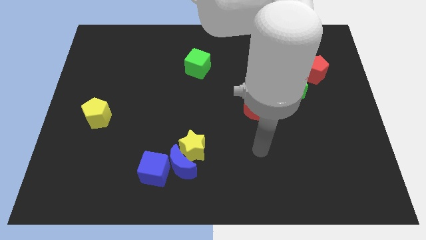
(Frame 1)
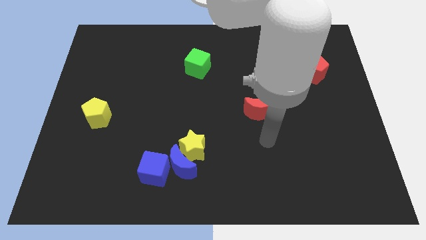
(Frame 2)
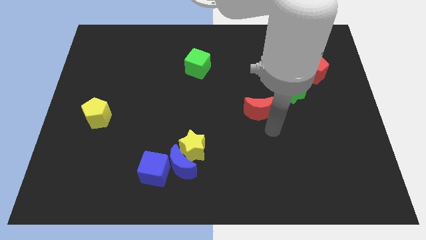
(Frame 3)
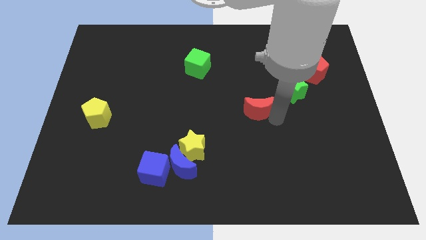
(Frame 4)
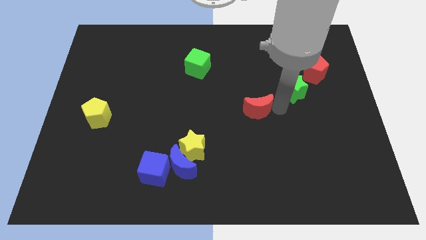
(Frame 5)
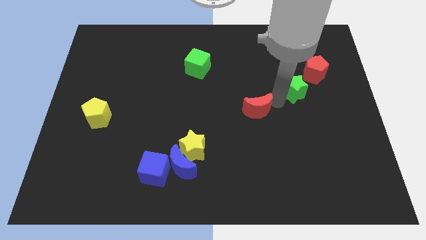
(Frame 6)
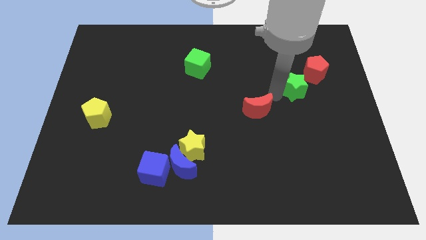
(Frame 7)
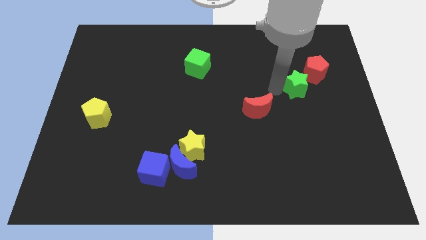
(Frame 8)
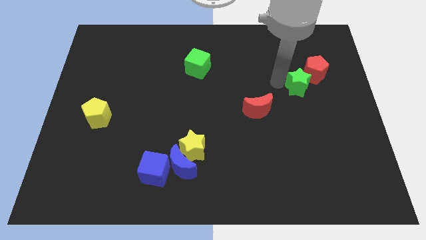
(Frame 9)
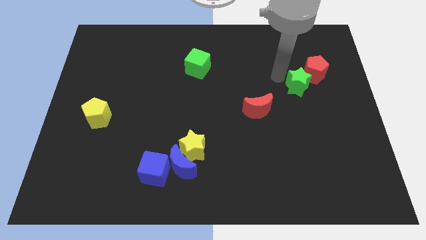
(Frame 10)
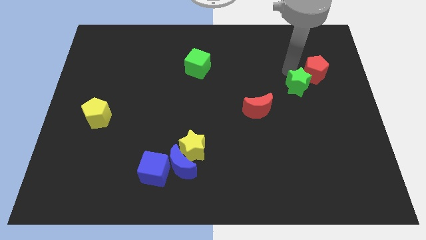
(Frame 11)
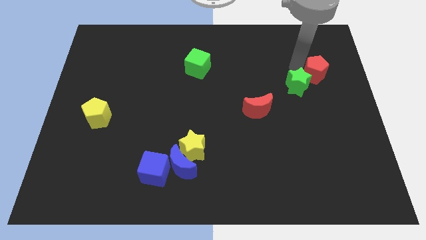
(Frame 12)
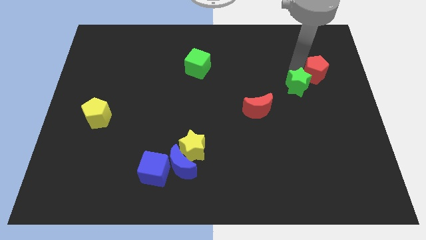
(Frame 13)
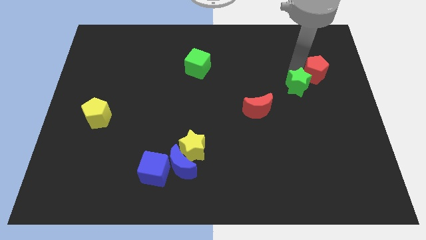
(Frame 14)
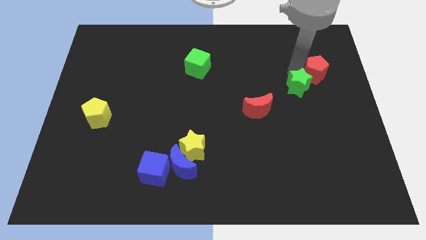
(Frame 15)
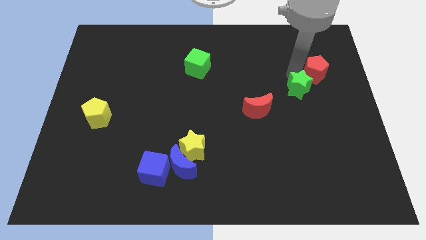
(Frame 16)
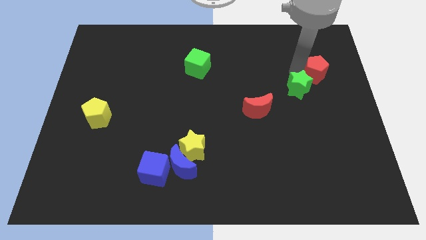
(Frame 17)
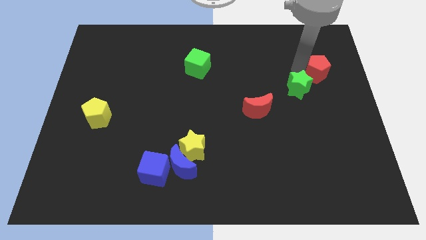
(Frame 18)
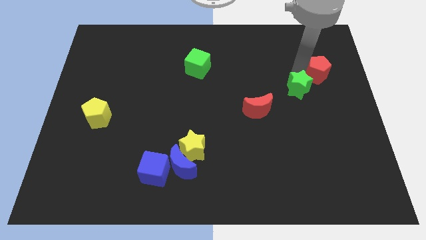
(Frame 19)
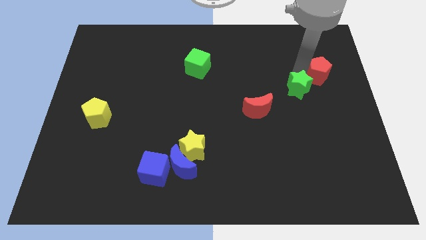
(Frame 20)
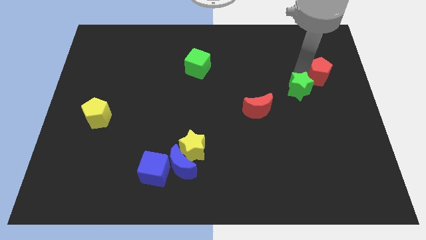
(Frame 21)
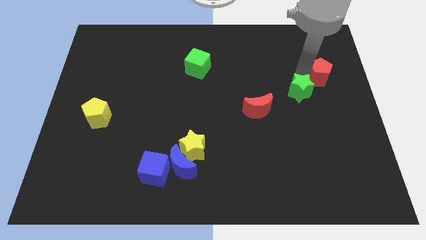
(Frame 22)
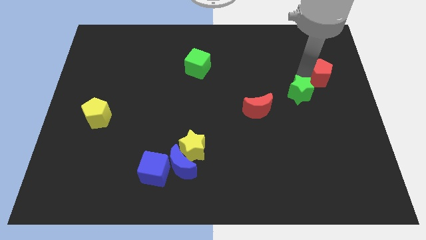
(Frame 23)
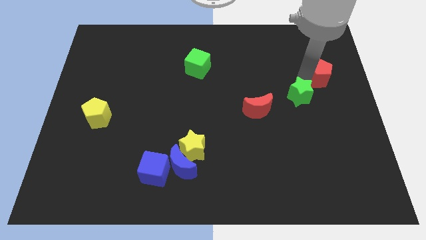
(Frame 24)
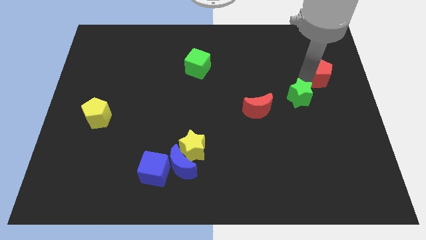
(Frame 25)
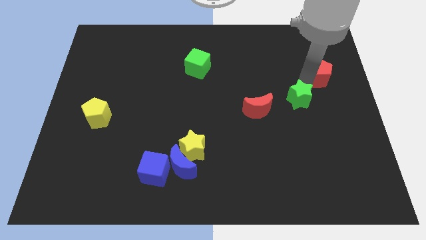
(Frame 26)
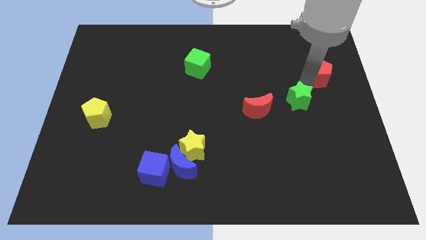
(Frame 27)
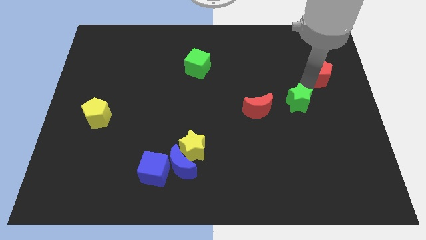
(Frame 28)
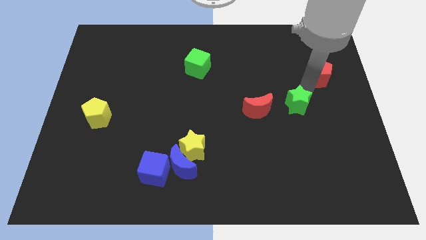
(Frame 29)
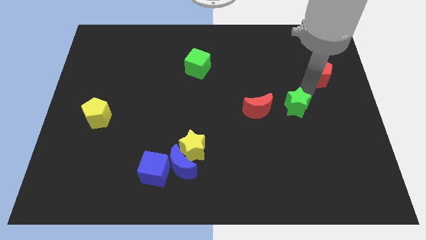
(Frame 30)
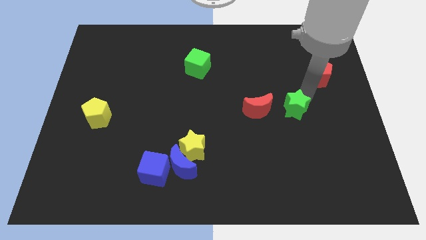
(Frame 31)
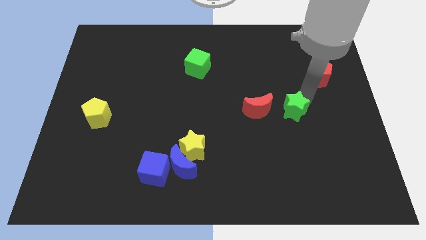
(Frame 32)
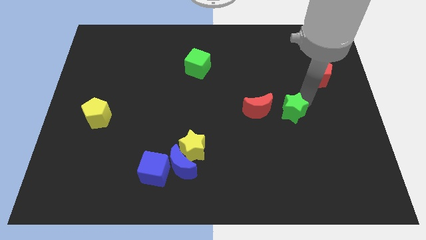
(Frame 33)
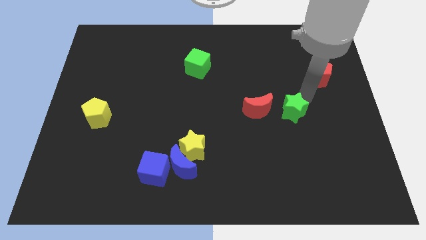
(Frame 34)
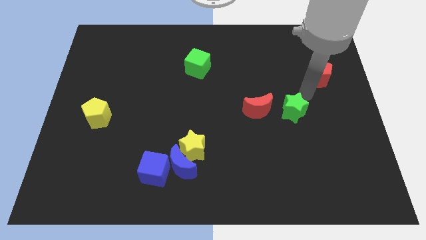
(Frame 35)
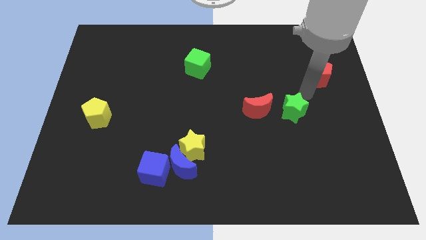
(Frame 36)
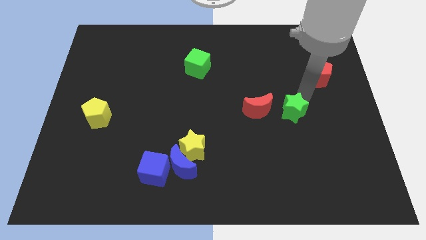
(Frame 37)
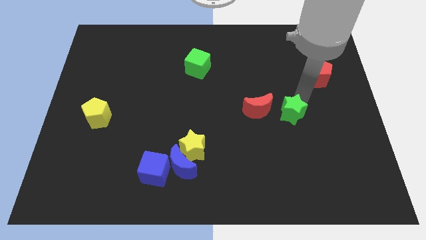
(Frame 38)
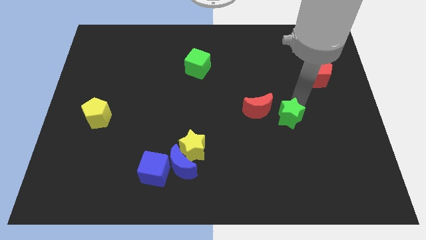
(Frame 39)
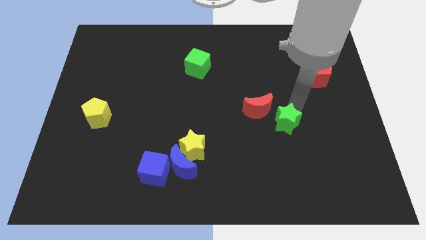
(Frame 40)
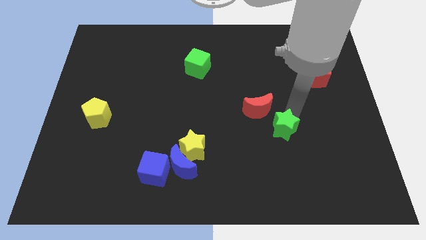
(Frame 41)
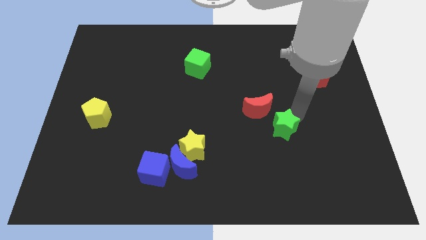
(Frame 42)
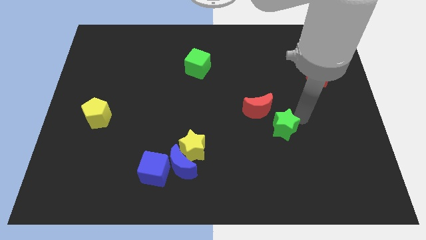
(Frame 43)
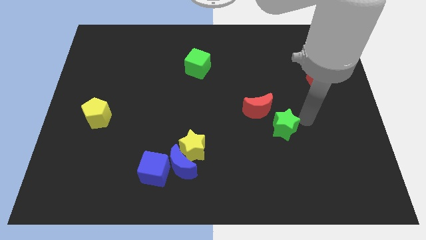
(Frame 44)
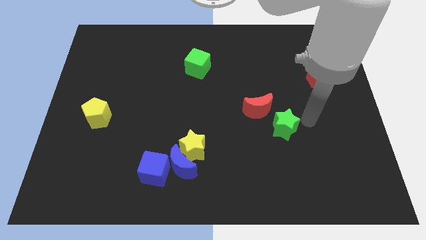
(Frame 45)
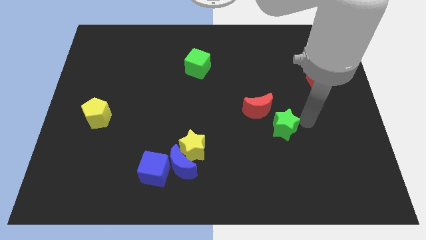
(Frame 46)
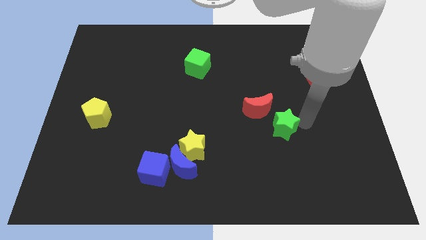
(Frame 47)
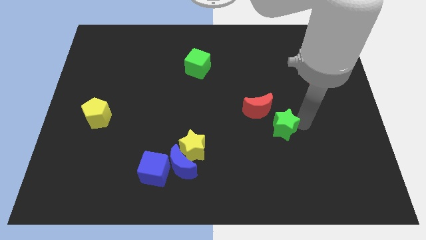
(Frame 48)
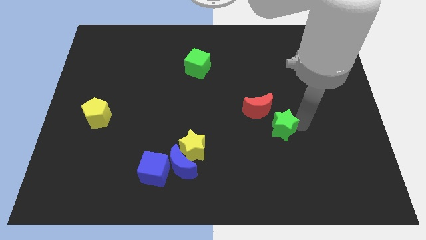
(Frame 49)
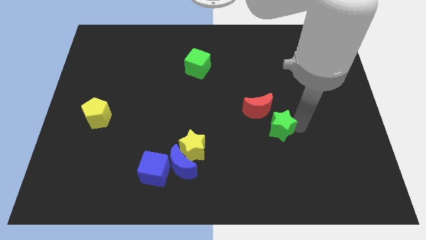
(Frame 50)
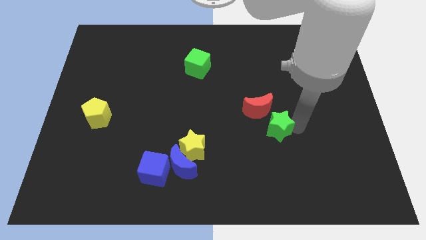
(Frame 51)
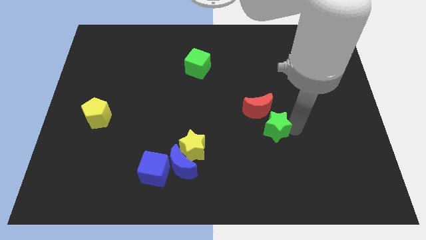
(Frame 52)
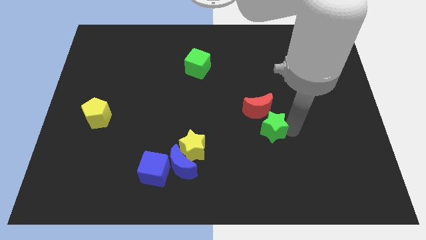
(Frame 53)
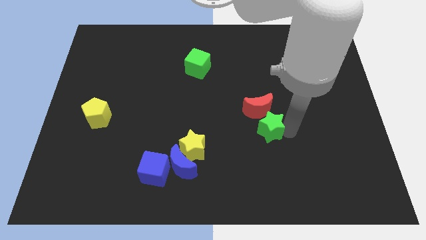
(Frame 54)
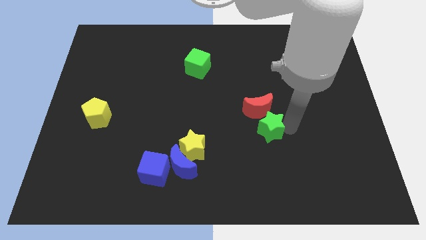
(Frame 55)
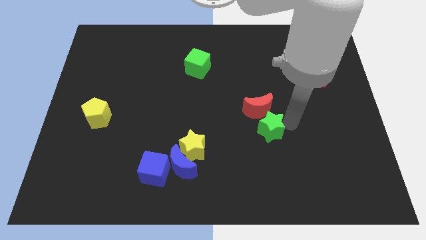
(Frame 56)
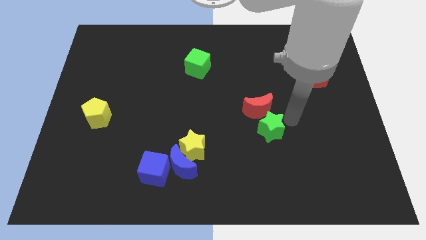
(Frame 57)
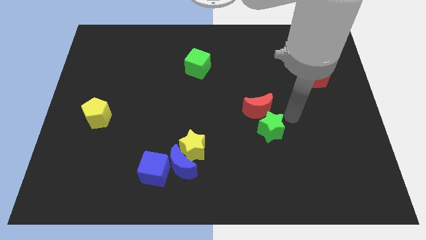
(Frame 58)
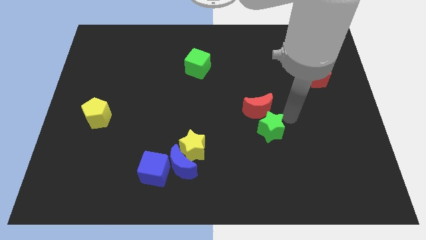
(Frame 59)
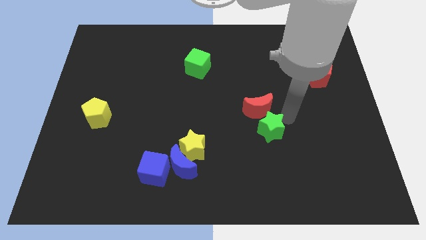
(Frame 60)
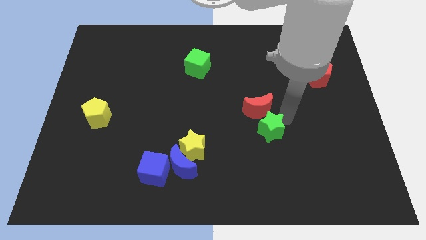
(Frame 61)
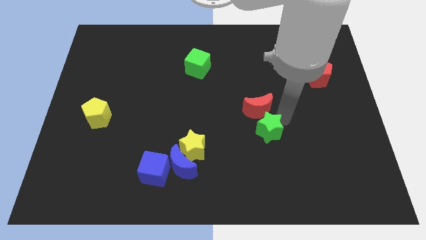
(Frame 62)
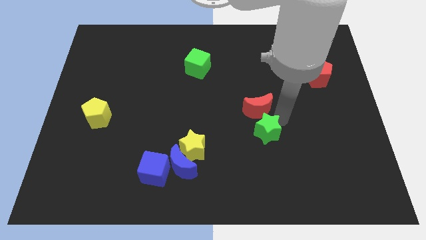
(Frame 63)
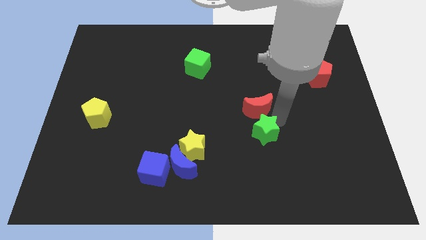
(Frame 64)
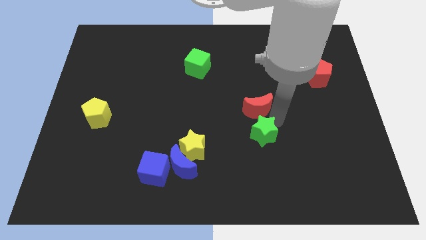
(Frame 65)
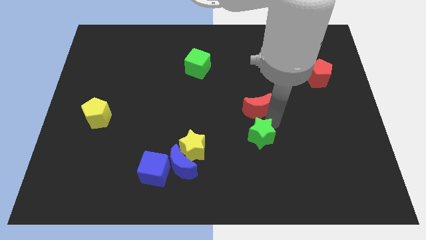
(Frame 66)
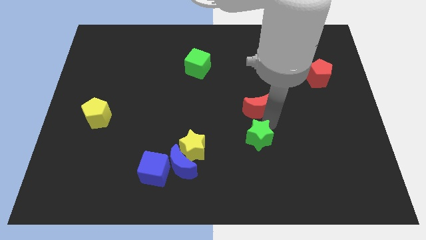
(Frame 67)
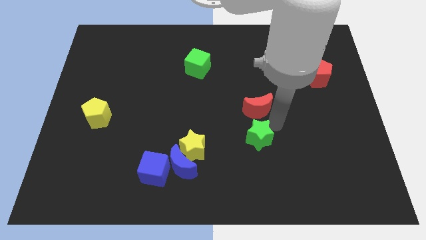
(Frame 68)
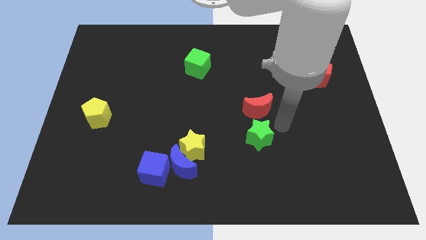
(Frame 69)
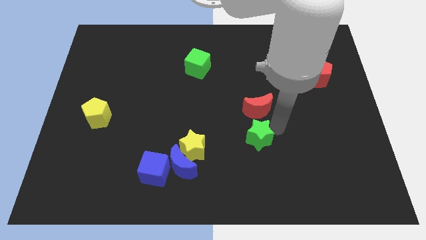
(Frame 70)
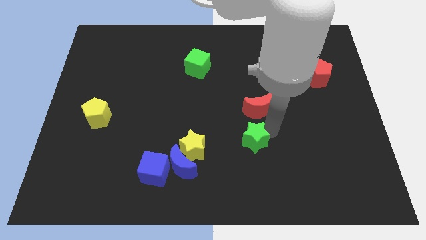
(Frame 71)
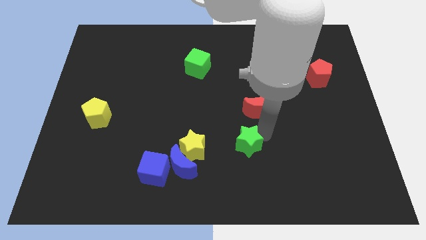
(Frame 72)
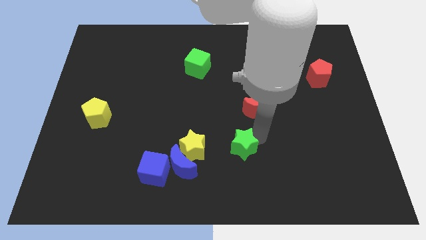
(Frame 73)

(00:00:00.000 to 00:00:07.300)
move the green star downwards and then to the left

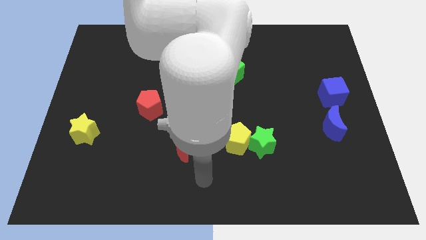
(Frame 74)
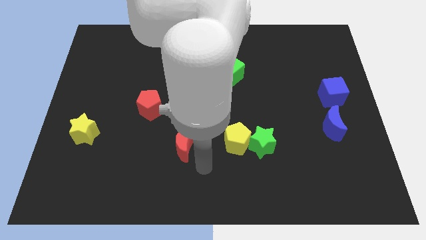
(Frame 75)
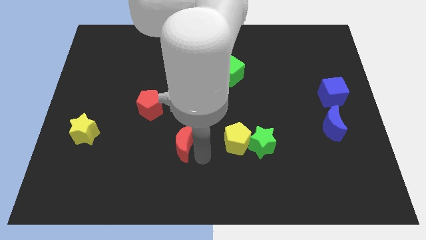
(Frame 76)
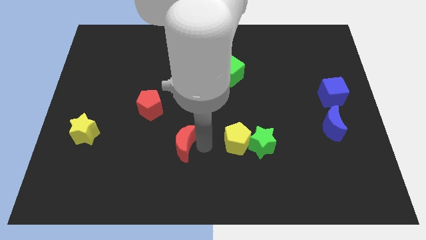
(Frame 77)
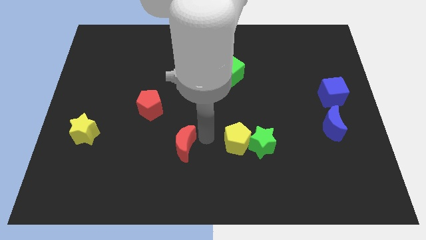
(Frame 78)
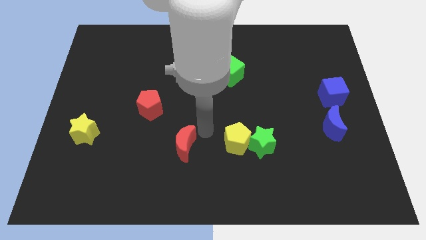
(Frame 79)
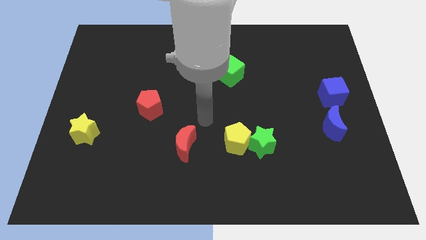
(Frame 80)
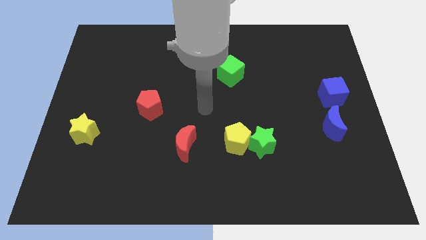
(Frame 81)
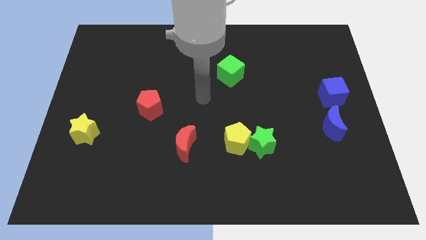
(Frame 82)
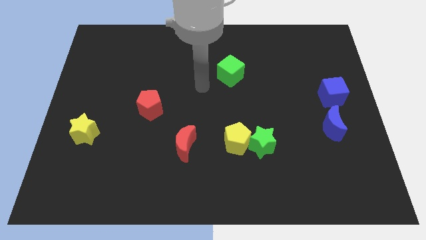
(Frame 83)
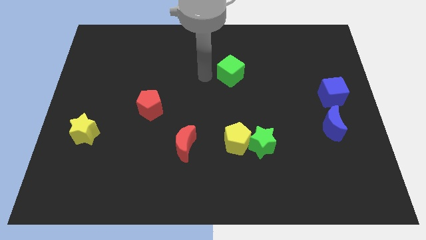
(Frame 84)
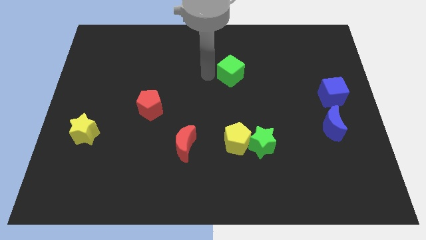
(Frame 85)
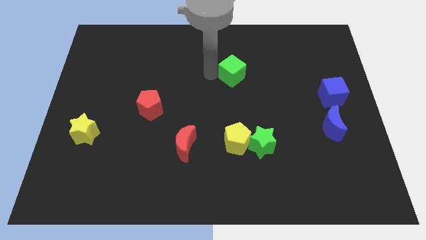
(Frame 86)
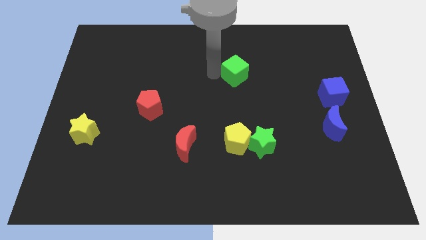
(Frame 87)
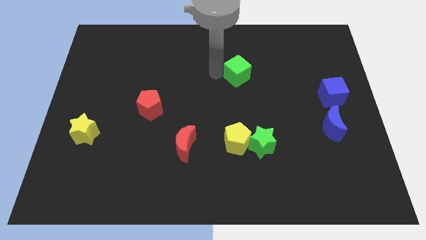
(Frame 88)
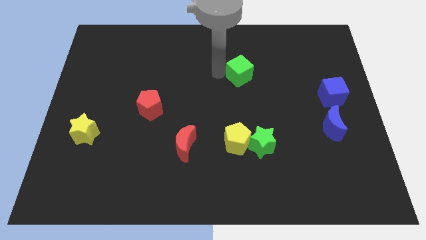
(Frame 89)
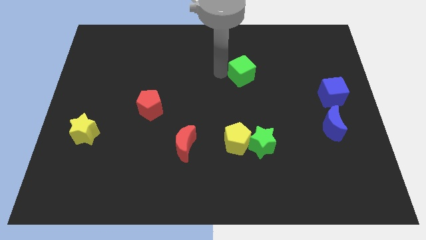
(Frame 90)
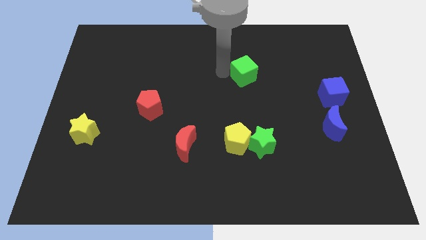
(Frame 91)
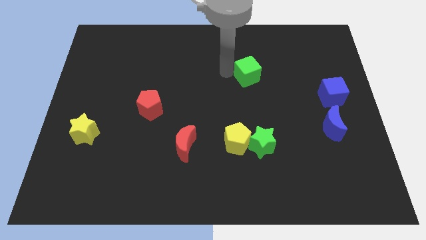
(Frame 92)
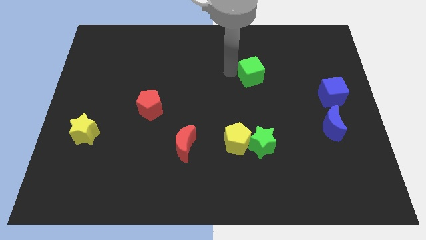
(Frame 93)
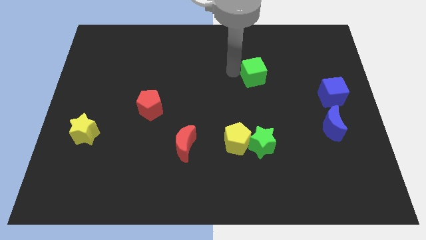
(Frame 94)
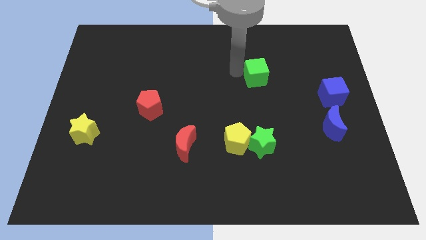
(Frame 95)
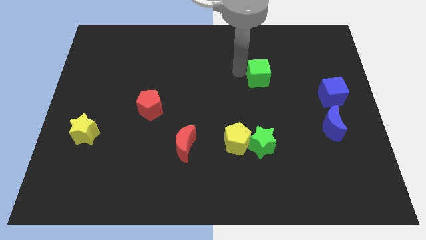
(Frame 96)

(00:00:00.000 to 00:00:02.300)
slide the green cube slightly to the right
